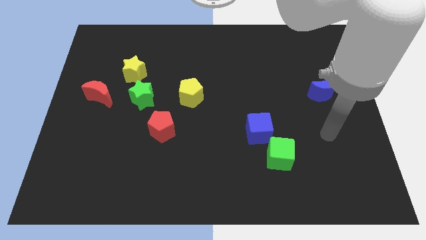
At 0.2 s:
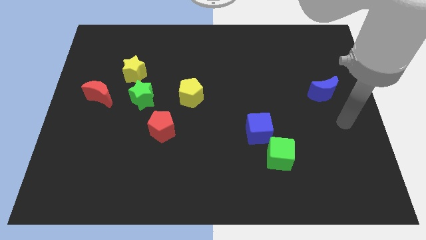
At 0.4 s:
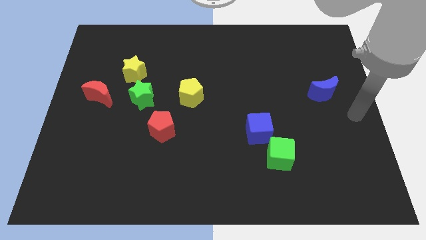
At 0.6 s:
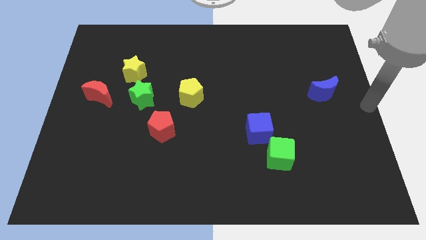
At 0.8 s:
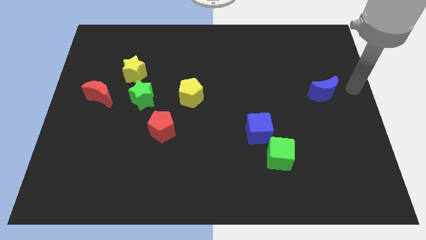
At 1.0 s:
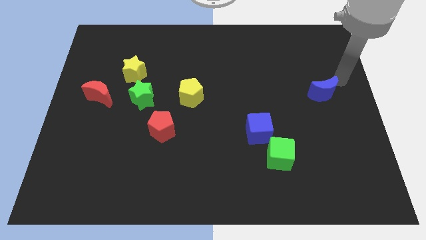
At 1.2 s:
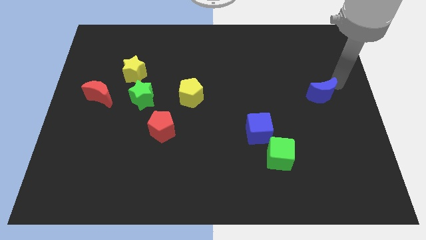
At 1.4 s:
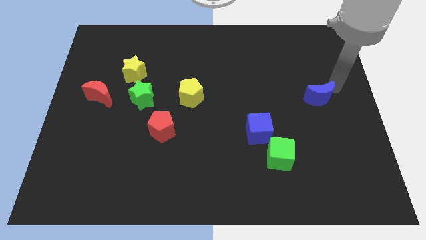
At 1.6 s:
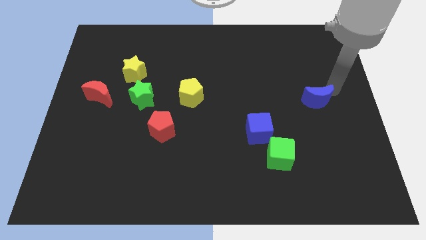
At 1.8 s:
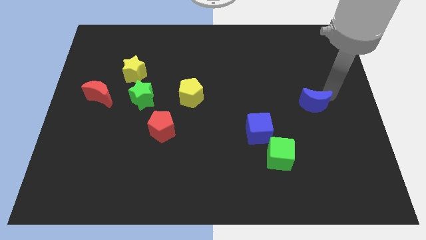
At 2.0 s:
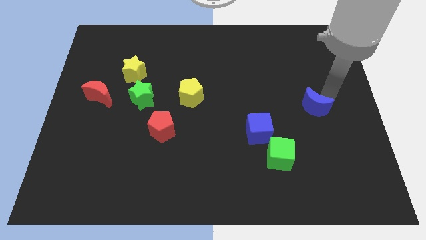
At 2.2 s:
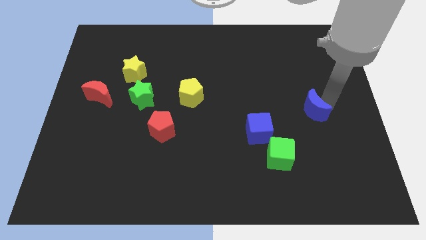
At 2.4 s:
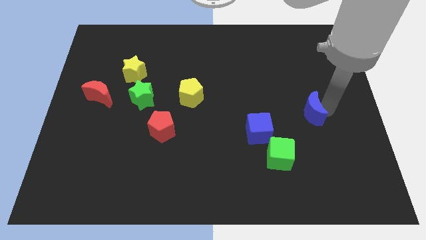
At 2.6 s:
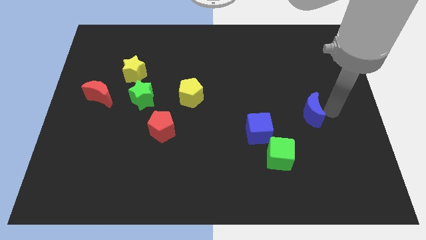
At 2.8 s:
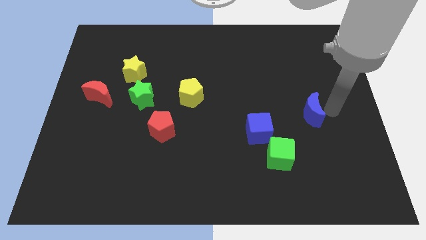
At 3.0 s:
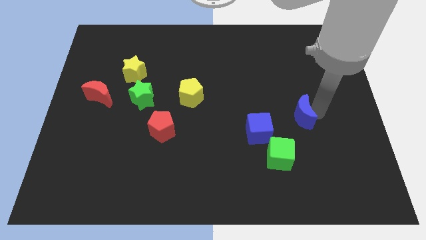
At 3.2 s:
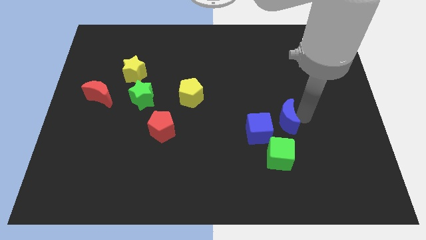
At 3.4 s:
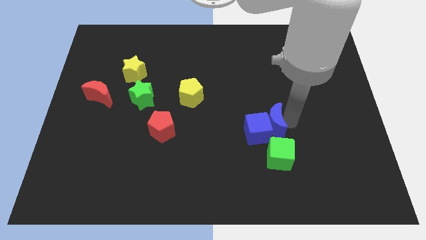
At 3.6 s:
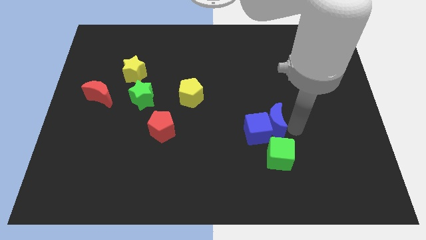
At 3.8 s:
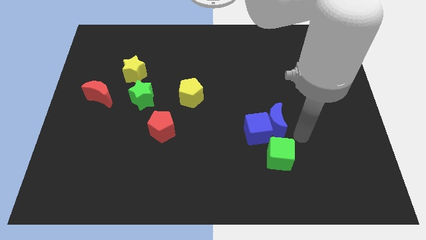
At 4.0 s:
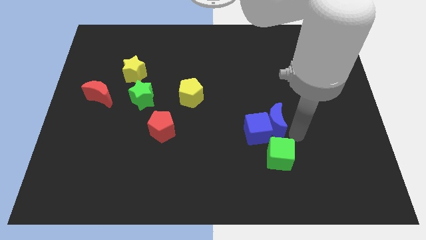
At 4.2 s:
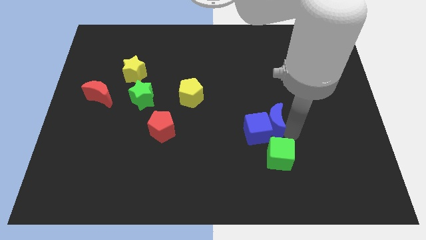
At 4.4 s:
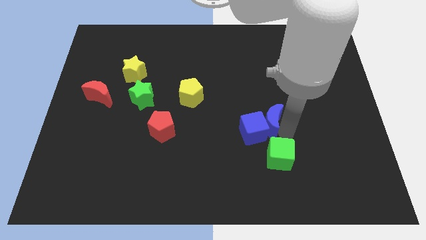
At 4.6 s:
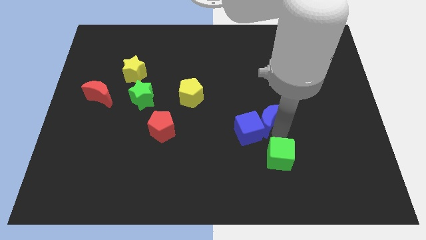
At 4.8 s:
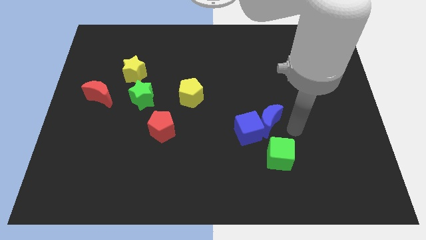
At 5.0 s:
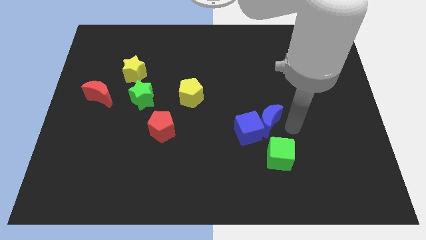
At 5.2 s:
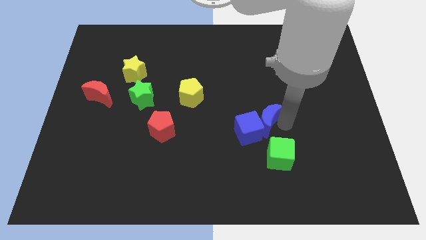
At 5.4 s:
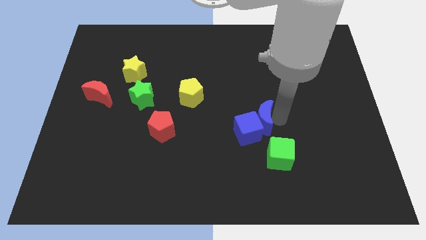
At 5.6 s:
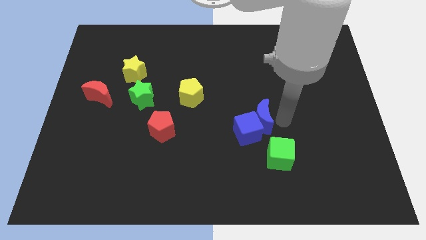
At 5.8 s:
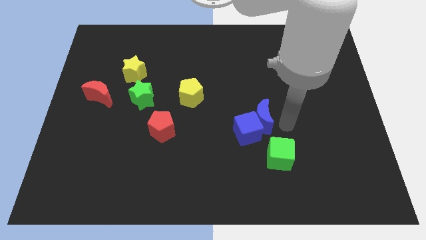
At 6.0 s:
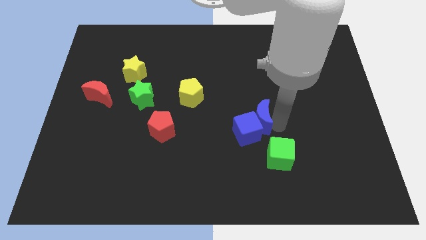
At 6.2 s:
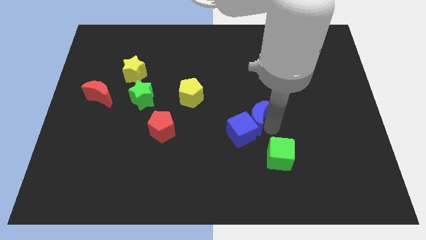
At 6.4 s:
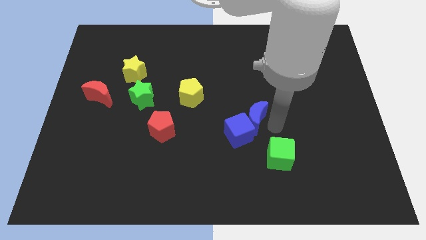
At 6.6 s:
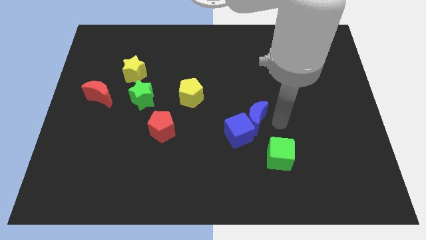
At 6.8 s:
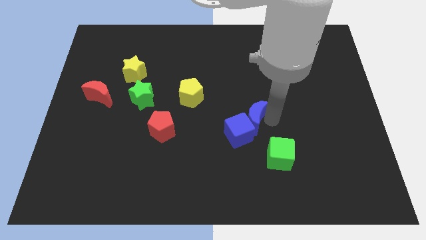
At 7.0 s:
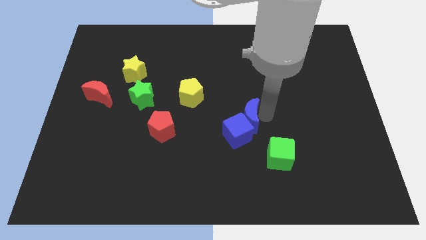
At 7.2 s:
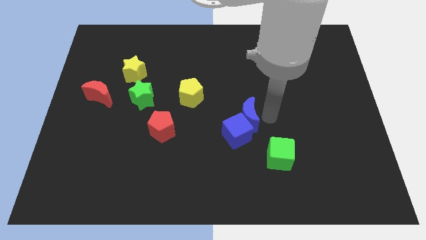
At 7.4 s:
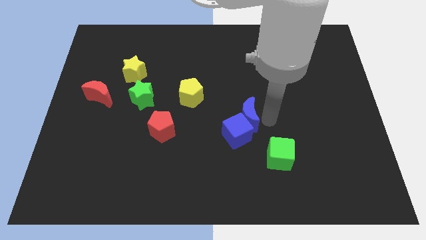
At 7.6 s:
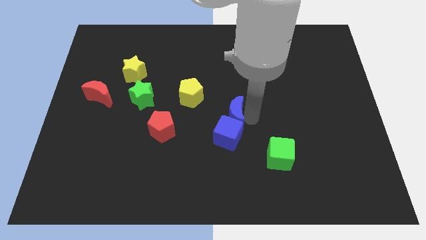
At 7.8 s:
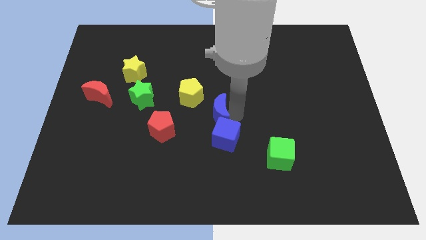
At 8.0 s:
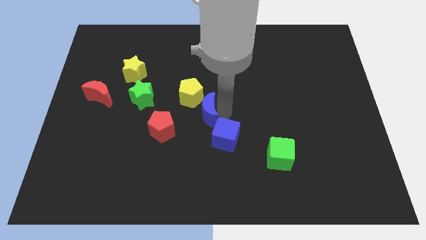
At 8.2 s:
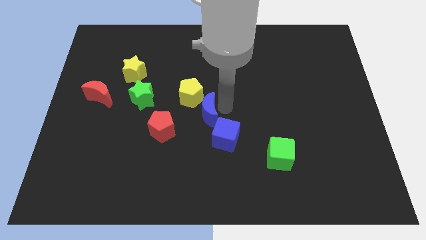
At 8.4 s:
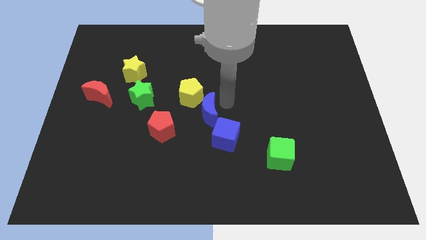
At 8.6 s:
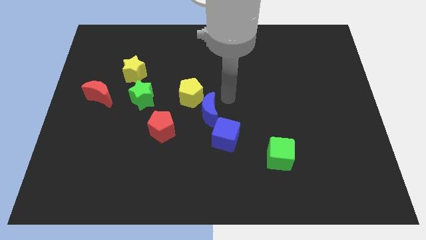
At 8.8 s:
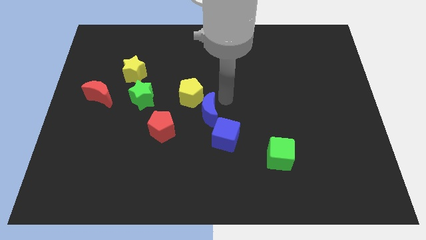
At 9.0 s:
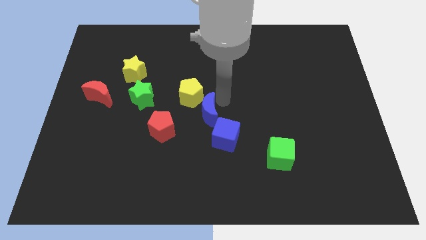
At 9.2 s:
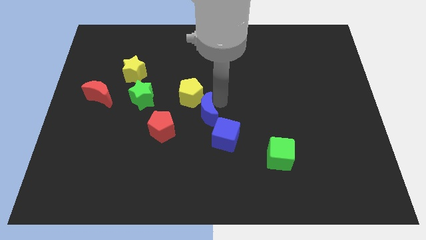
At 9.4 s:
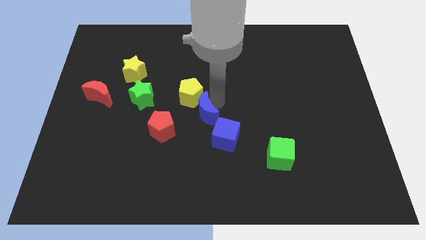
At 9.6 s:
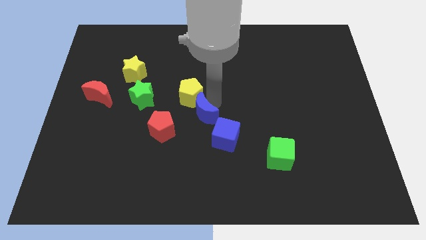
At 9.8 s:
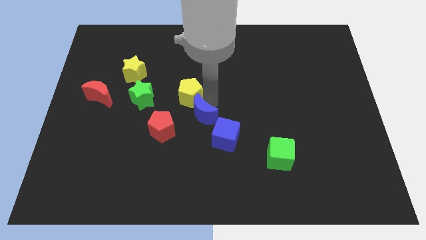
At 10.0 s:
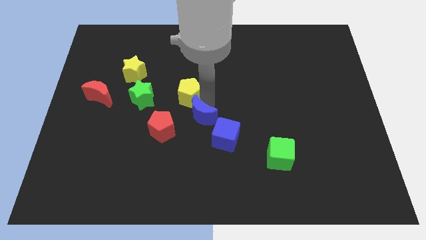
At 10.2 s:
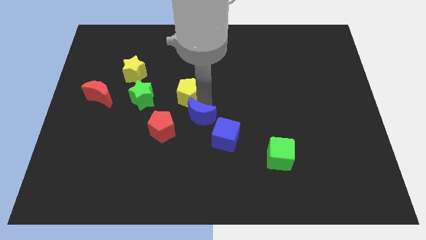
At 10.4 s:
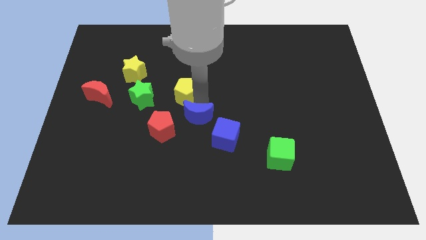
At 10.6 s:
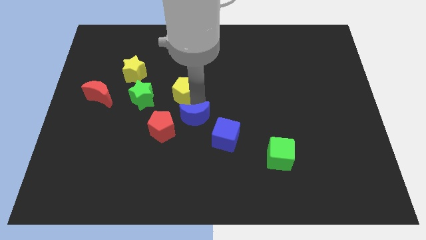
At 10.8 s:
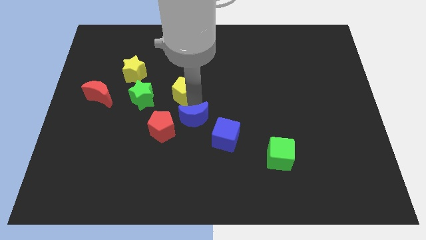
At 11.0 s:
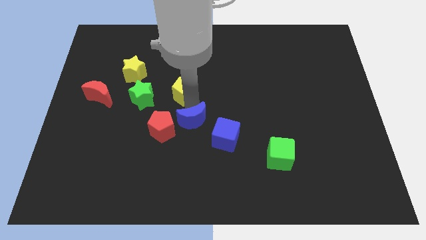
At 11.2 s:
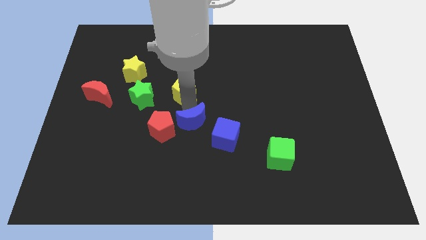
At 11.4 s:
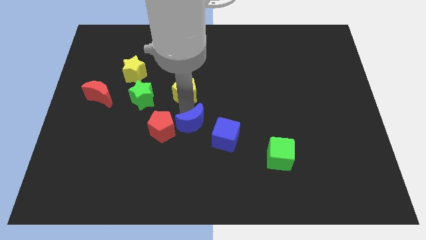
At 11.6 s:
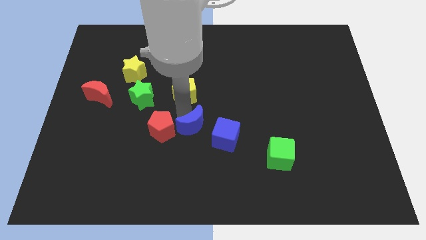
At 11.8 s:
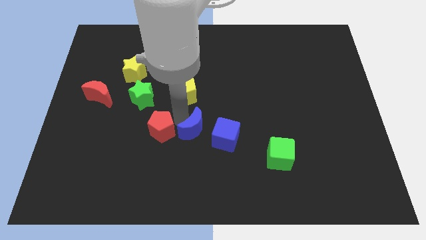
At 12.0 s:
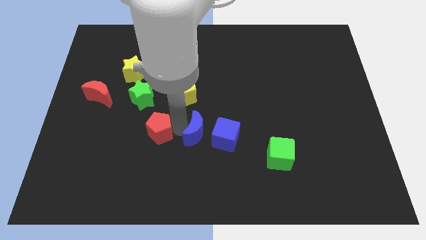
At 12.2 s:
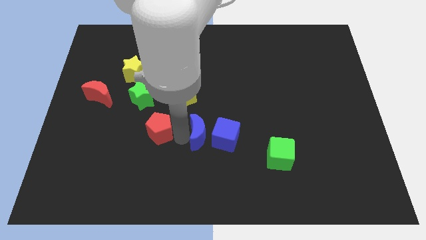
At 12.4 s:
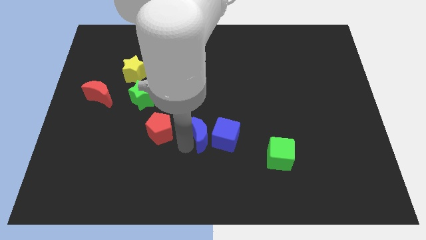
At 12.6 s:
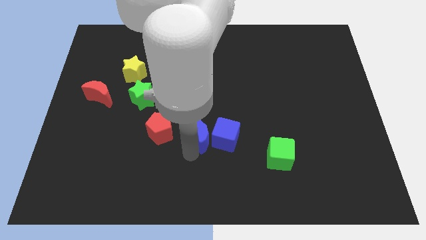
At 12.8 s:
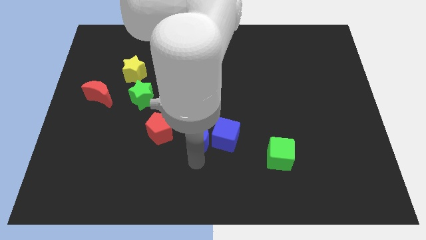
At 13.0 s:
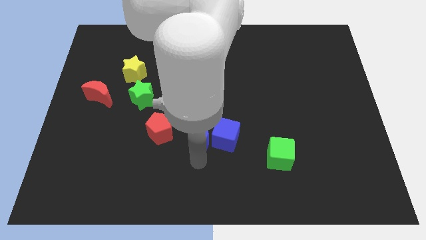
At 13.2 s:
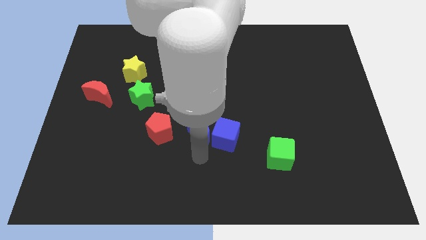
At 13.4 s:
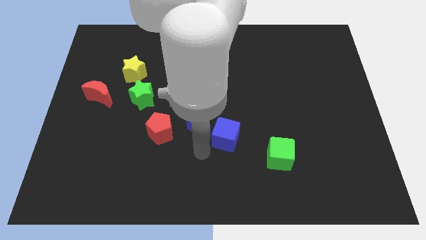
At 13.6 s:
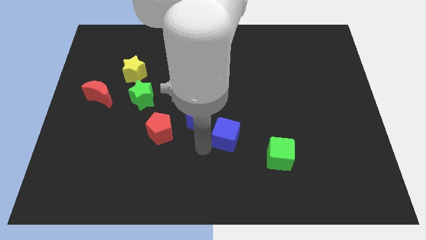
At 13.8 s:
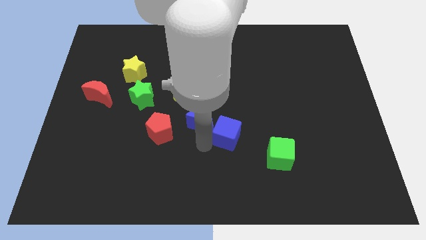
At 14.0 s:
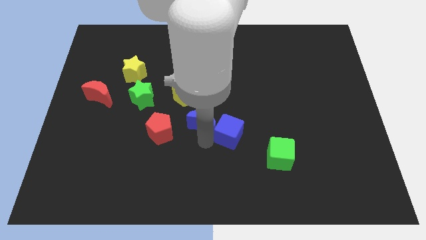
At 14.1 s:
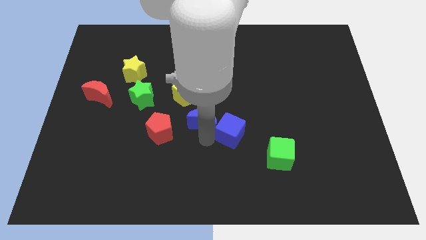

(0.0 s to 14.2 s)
push the blue moon diagonally up and to the left of the blue cube
